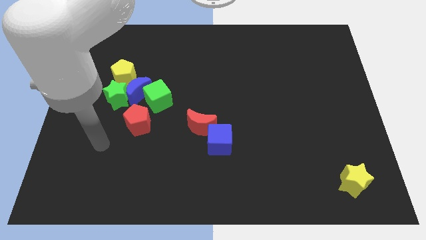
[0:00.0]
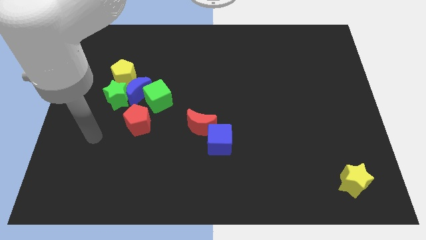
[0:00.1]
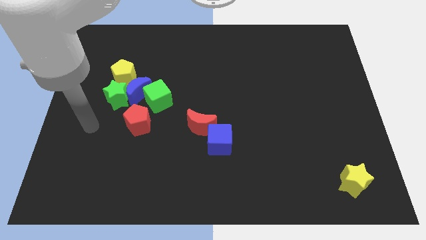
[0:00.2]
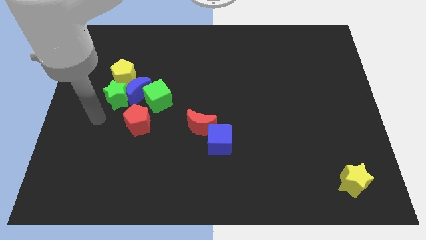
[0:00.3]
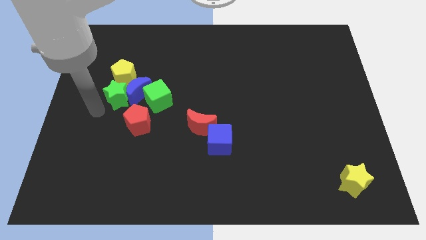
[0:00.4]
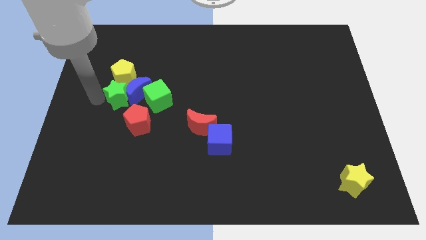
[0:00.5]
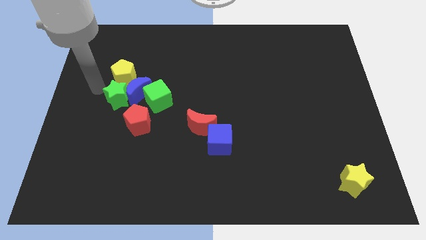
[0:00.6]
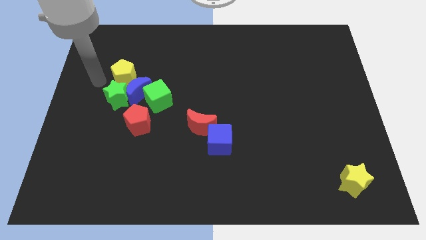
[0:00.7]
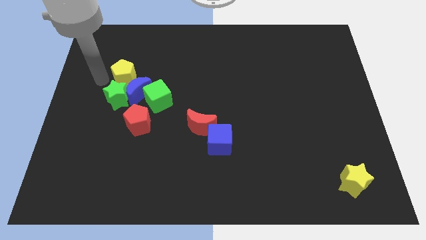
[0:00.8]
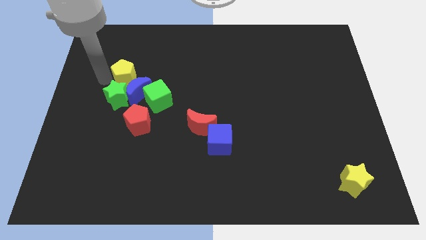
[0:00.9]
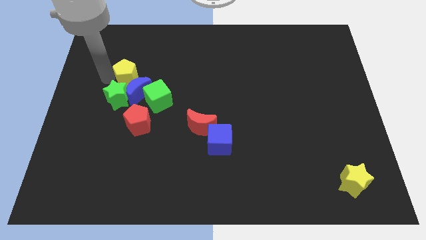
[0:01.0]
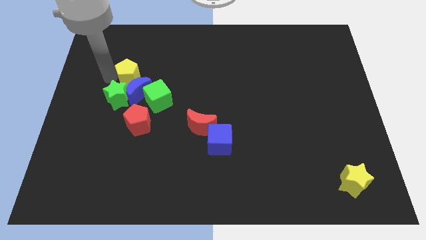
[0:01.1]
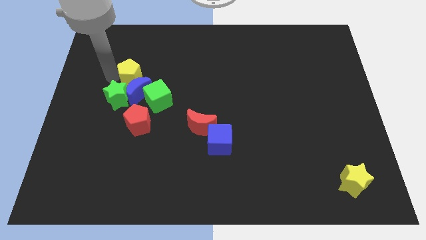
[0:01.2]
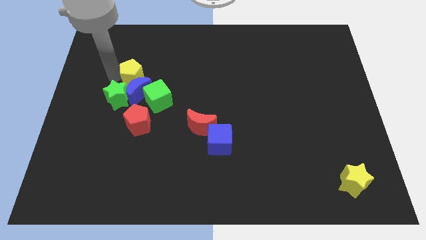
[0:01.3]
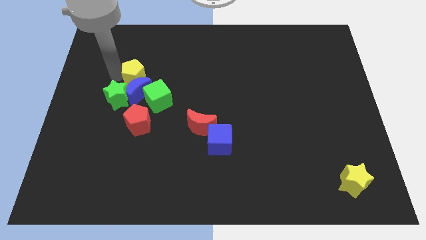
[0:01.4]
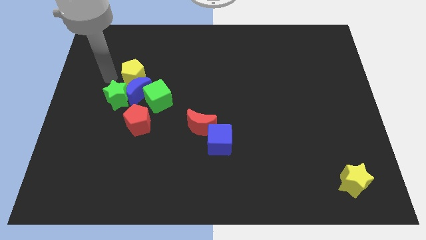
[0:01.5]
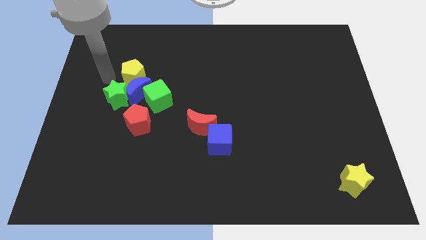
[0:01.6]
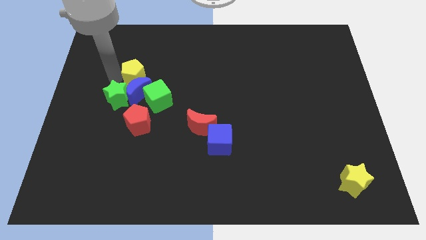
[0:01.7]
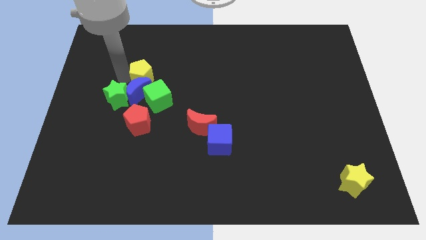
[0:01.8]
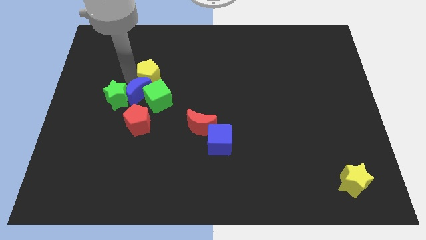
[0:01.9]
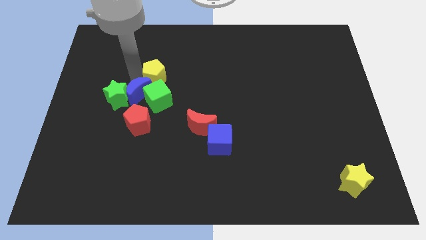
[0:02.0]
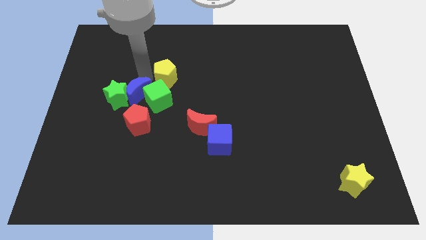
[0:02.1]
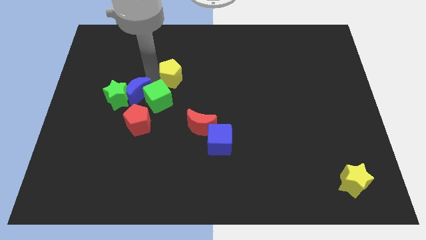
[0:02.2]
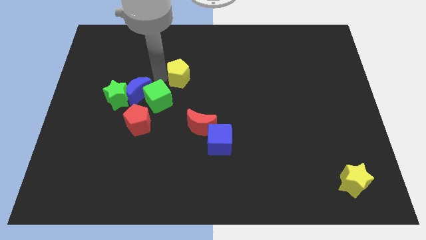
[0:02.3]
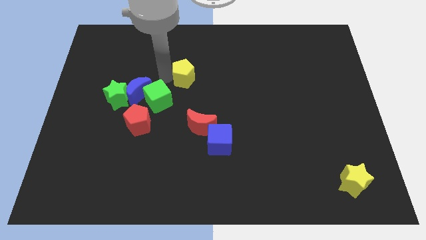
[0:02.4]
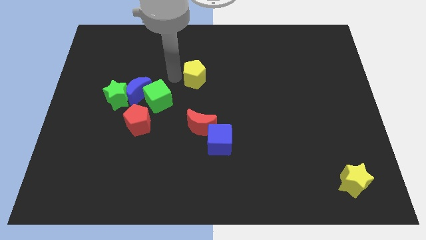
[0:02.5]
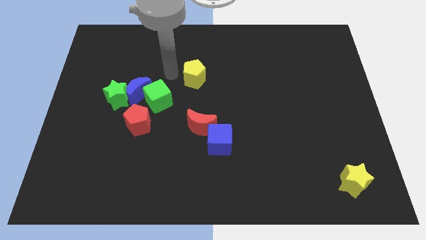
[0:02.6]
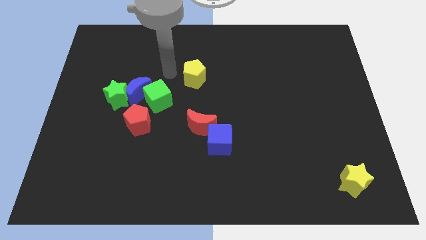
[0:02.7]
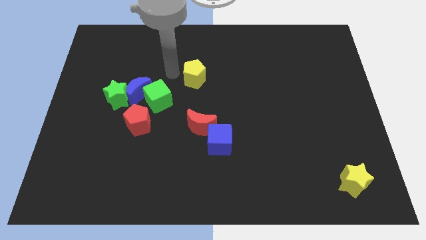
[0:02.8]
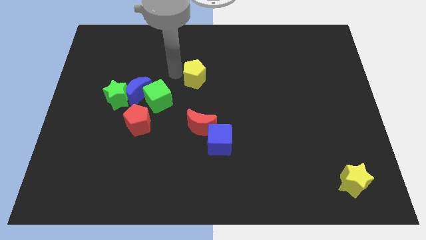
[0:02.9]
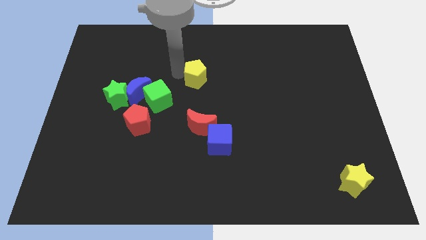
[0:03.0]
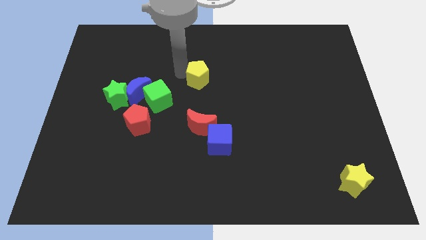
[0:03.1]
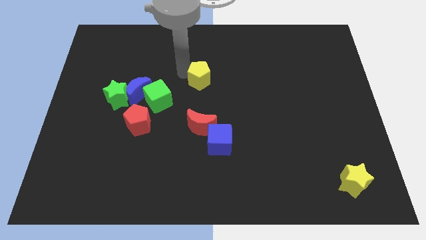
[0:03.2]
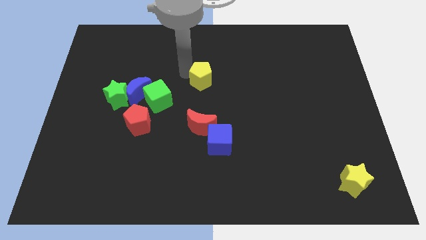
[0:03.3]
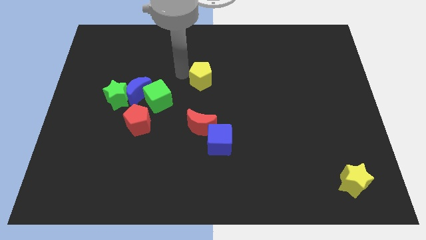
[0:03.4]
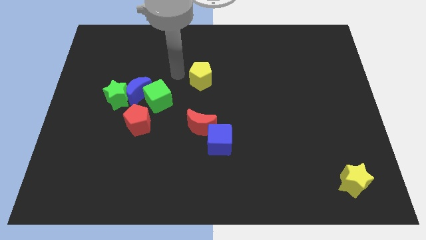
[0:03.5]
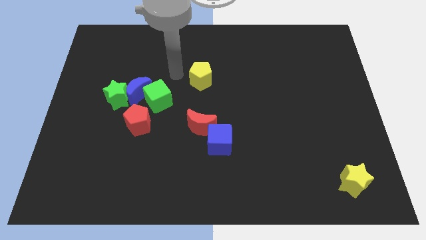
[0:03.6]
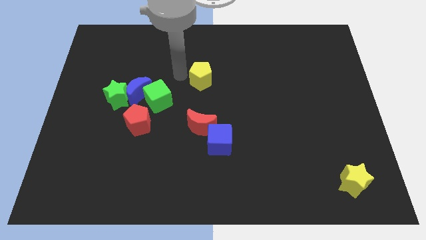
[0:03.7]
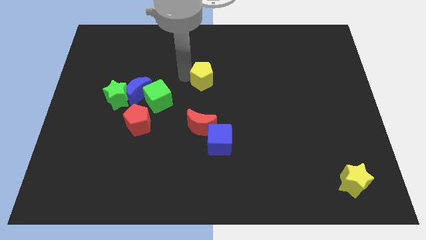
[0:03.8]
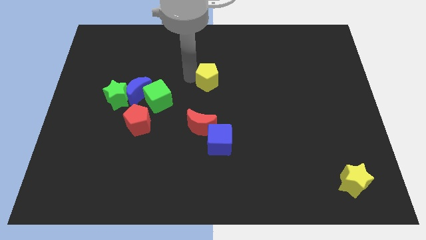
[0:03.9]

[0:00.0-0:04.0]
slide the yellow pentagon right

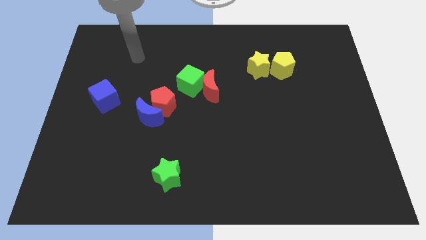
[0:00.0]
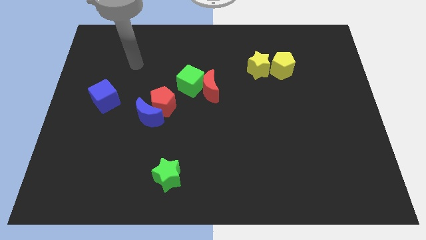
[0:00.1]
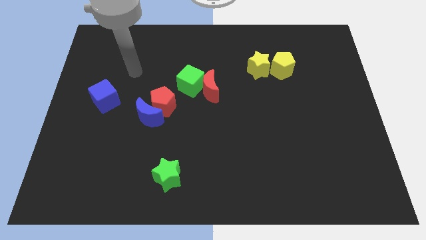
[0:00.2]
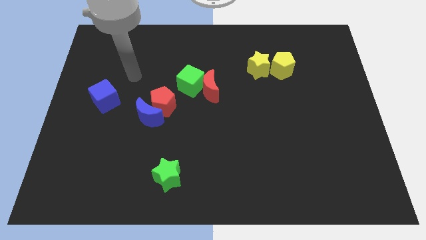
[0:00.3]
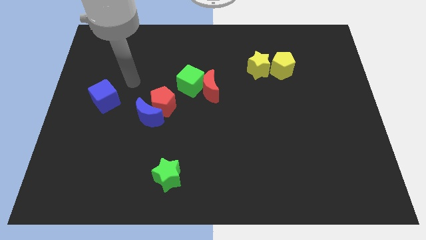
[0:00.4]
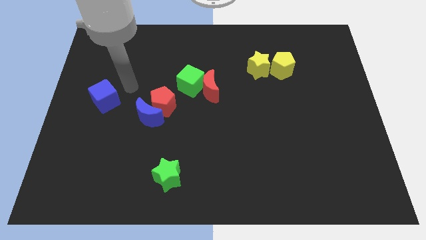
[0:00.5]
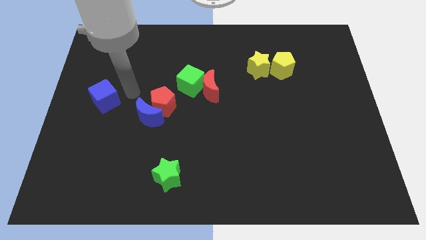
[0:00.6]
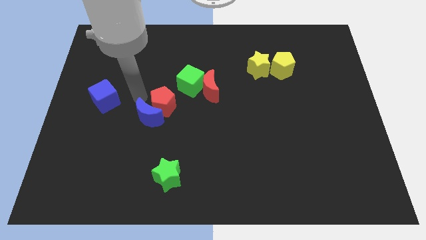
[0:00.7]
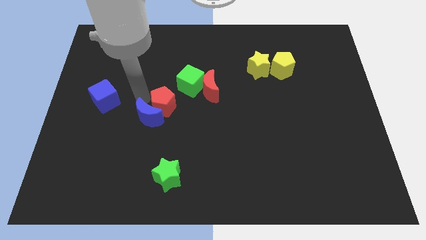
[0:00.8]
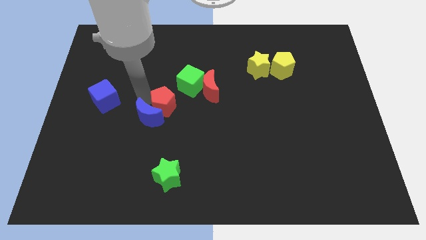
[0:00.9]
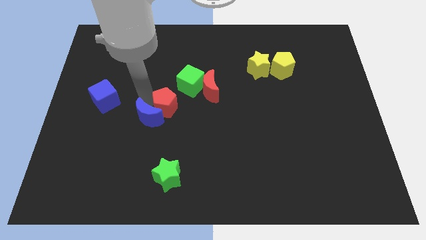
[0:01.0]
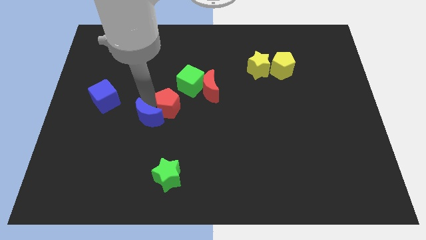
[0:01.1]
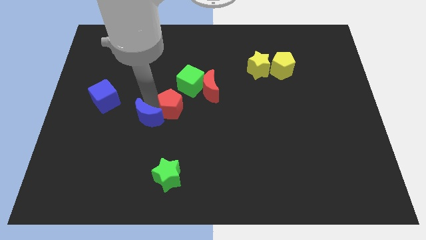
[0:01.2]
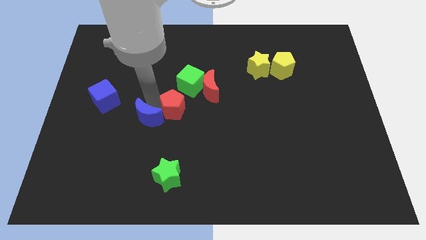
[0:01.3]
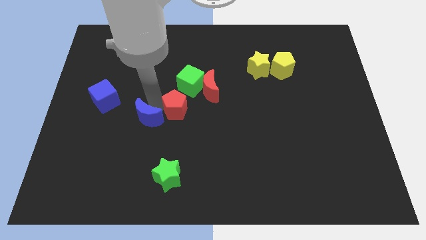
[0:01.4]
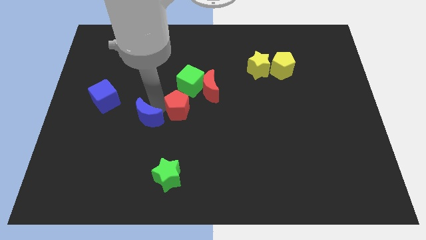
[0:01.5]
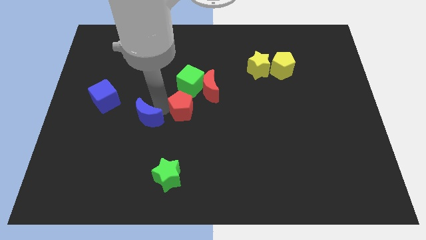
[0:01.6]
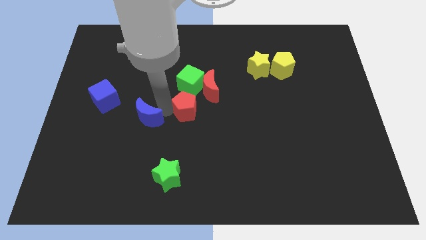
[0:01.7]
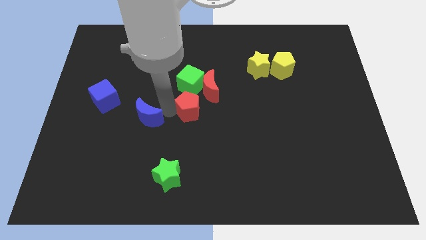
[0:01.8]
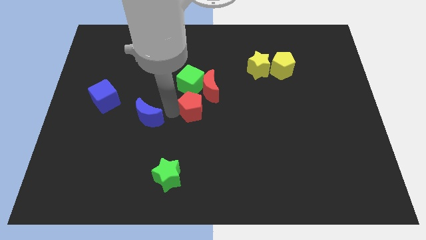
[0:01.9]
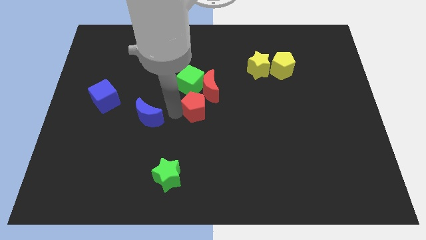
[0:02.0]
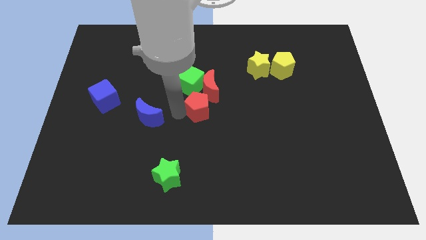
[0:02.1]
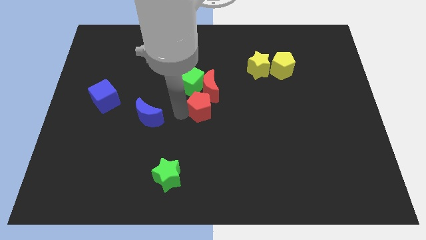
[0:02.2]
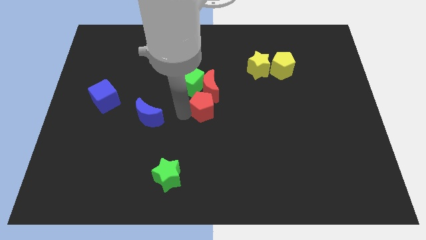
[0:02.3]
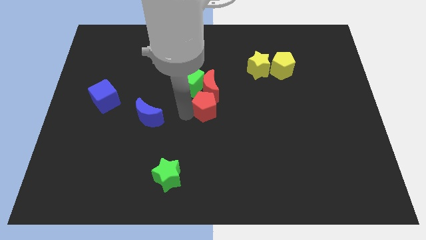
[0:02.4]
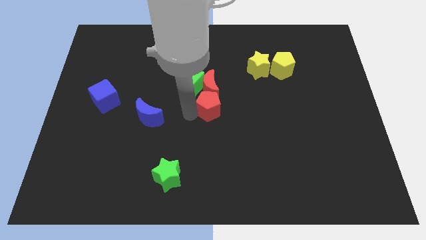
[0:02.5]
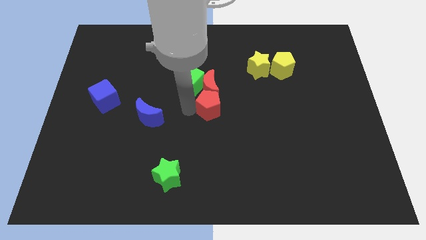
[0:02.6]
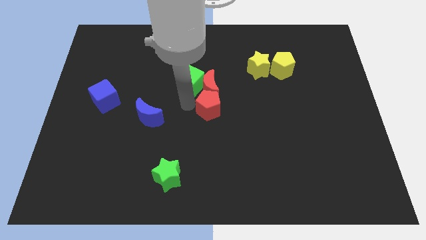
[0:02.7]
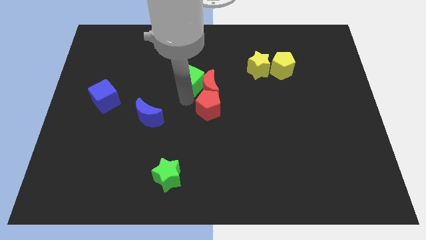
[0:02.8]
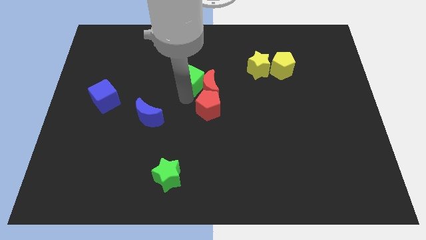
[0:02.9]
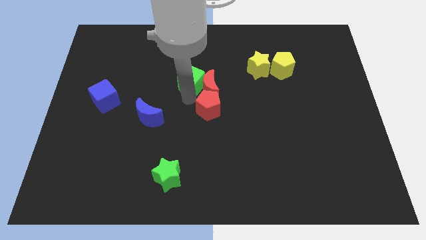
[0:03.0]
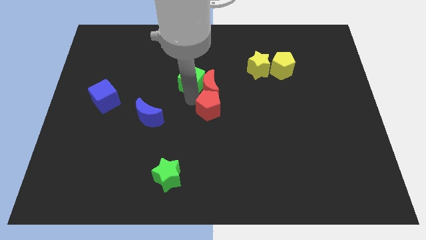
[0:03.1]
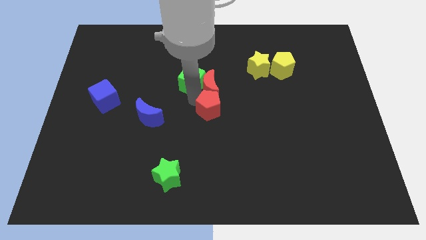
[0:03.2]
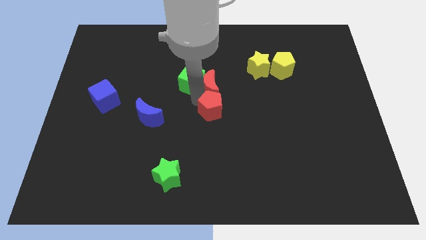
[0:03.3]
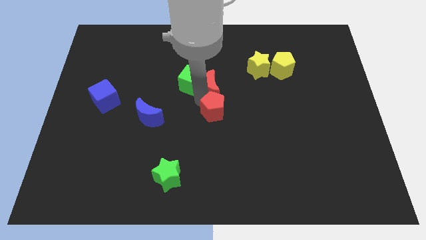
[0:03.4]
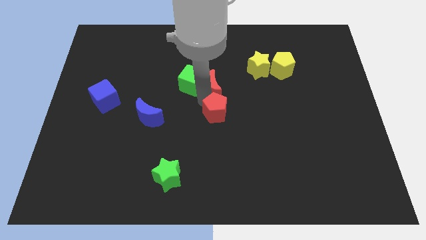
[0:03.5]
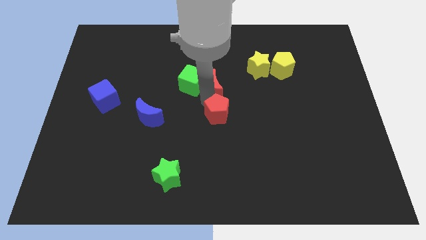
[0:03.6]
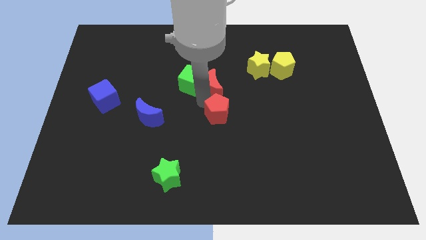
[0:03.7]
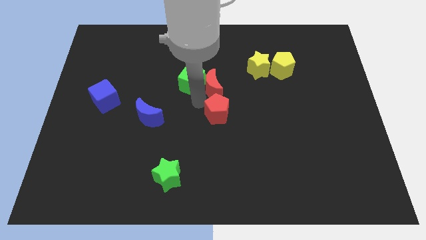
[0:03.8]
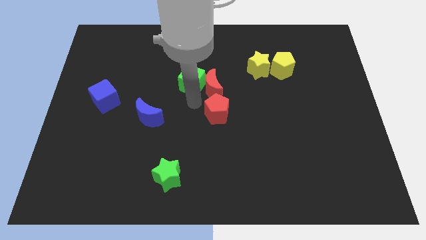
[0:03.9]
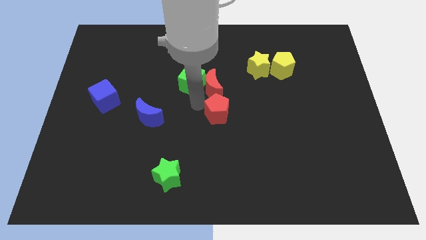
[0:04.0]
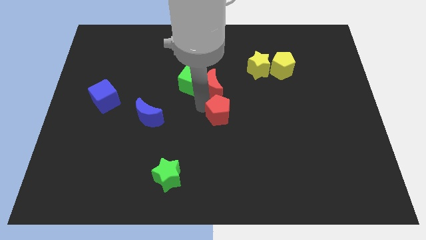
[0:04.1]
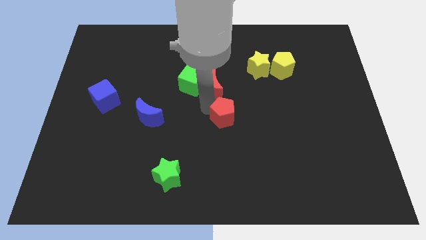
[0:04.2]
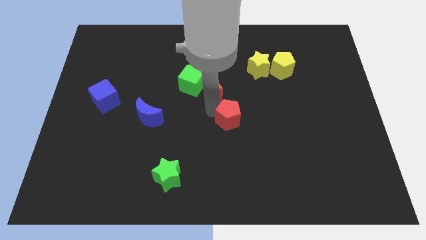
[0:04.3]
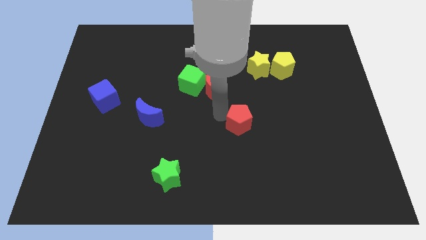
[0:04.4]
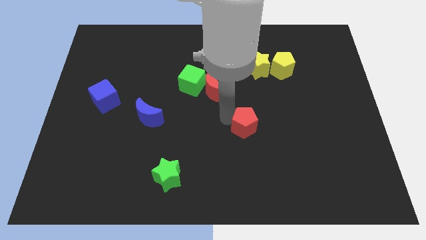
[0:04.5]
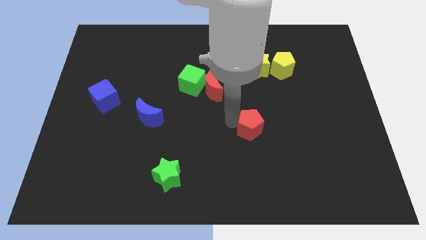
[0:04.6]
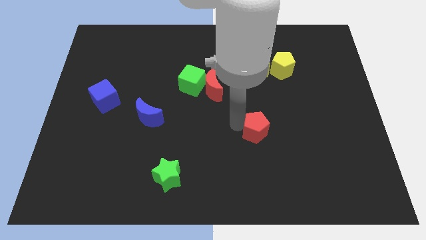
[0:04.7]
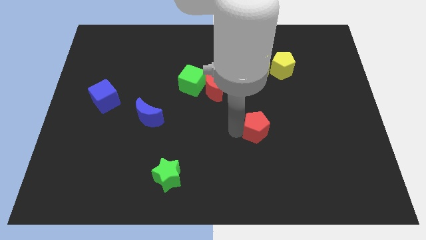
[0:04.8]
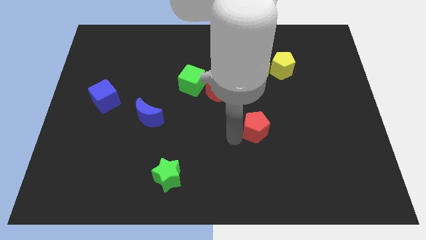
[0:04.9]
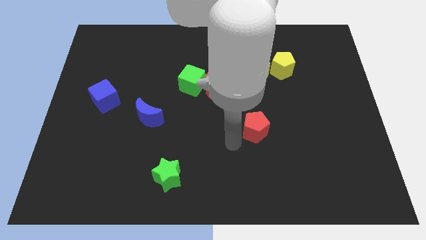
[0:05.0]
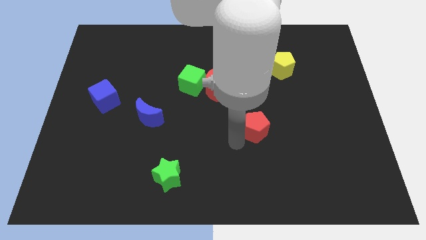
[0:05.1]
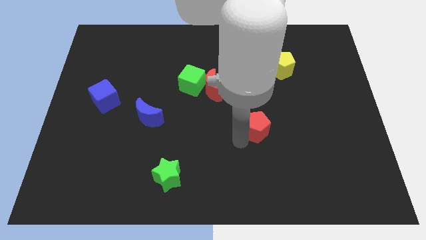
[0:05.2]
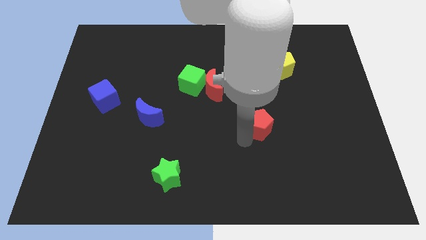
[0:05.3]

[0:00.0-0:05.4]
move the red pentagon to the right
